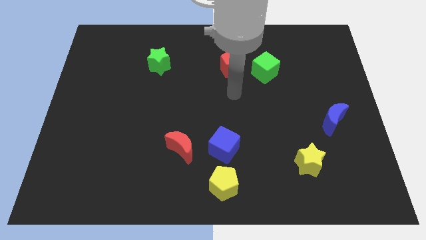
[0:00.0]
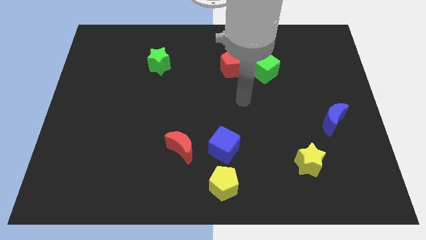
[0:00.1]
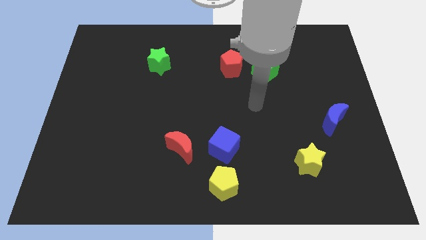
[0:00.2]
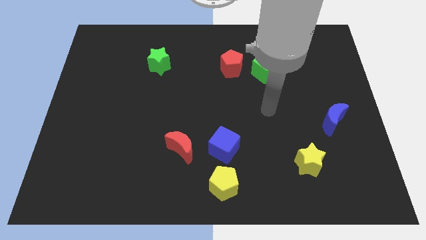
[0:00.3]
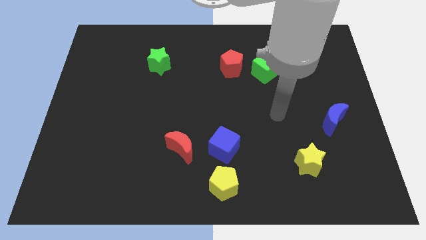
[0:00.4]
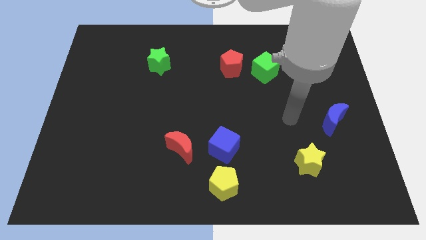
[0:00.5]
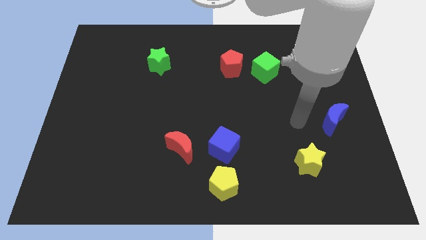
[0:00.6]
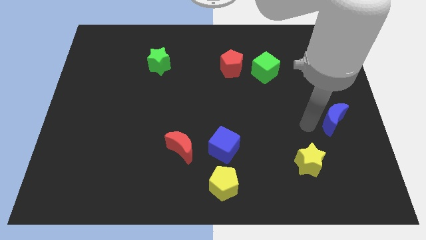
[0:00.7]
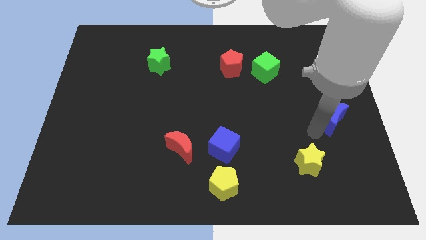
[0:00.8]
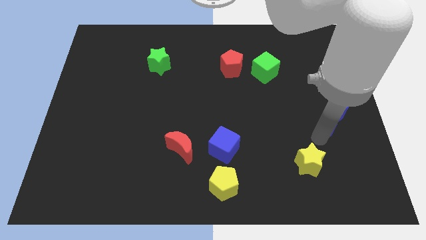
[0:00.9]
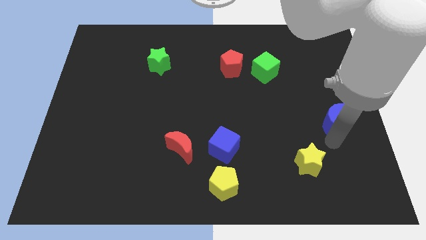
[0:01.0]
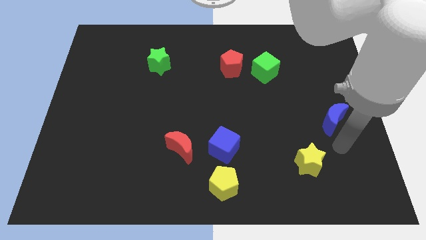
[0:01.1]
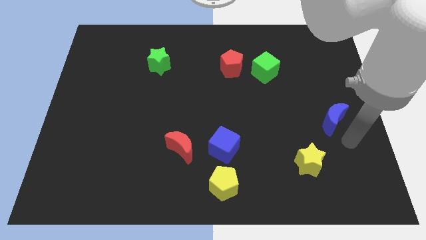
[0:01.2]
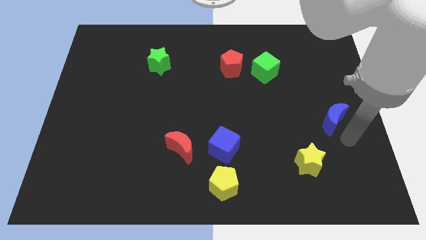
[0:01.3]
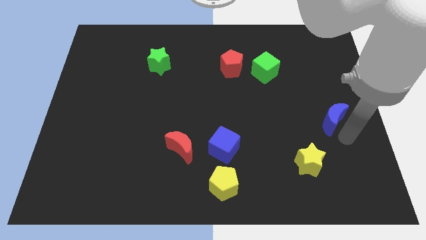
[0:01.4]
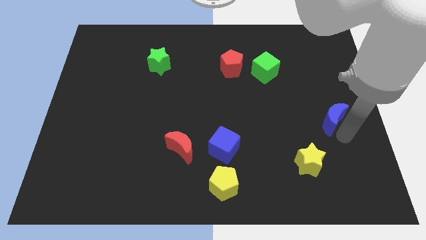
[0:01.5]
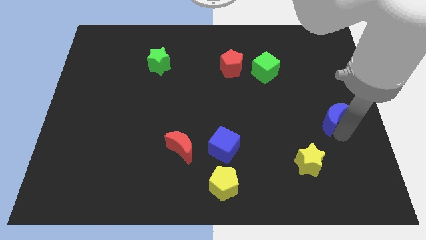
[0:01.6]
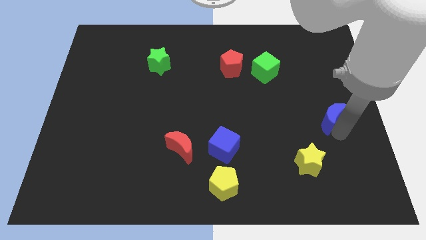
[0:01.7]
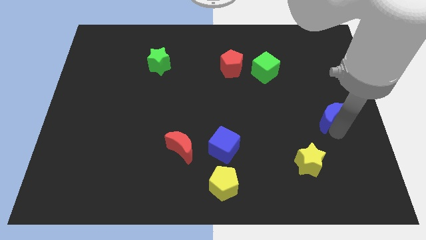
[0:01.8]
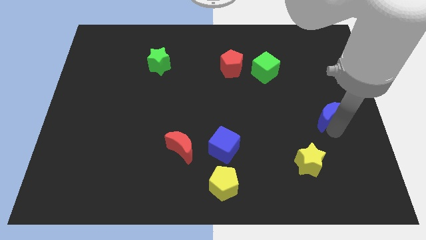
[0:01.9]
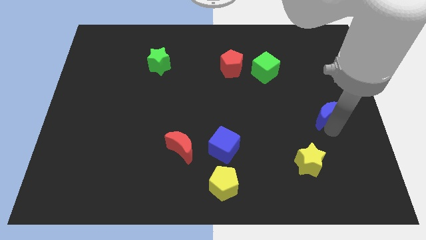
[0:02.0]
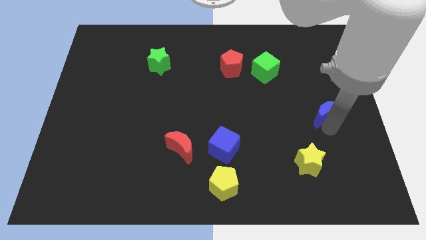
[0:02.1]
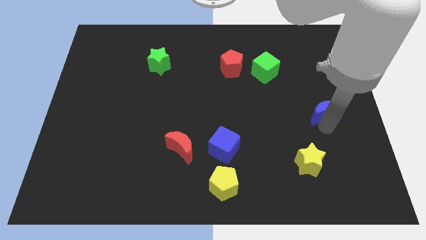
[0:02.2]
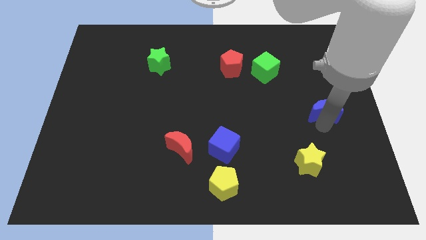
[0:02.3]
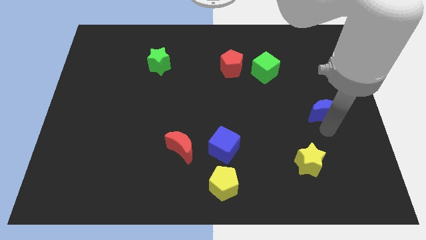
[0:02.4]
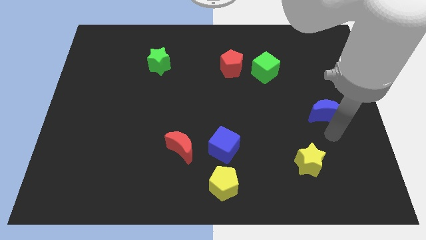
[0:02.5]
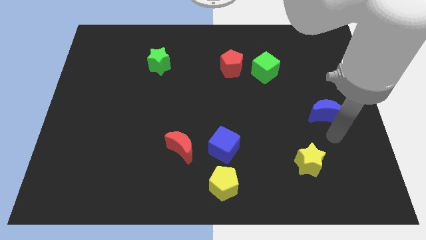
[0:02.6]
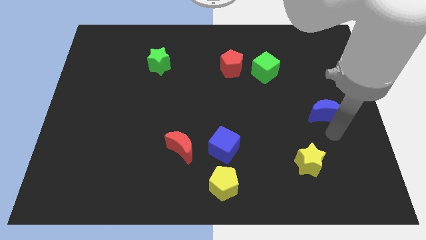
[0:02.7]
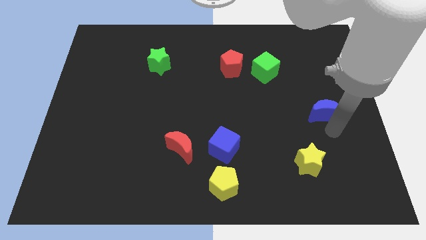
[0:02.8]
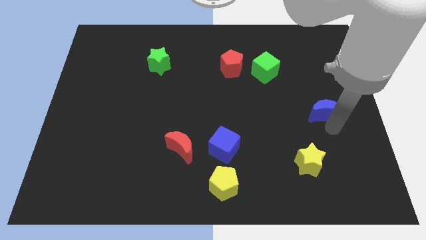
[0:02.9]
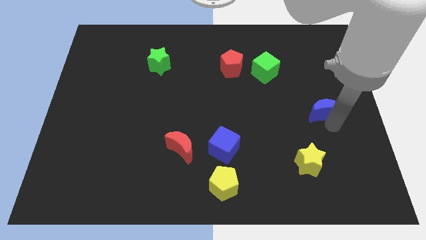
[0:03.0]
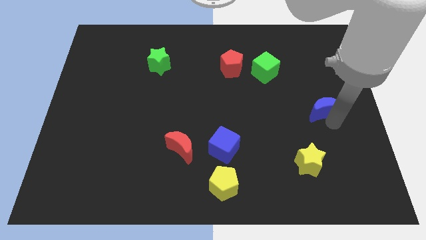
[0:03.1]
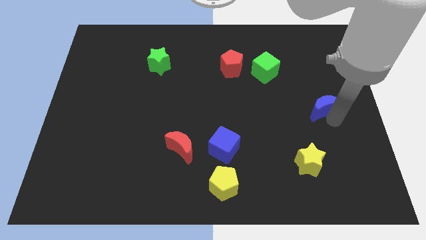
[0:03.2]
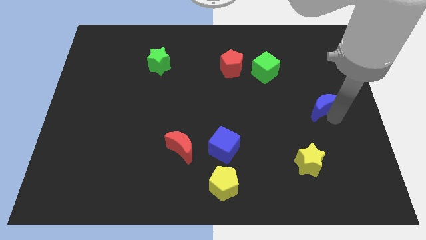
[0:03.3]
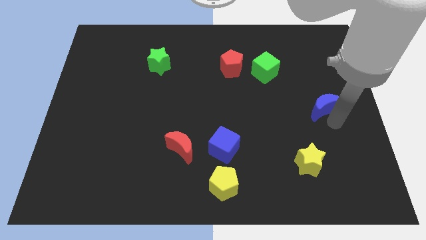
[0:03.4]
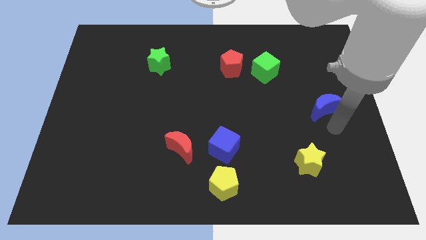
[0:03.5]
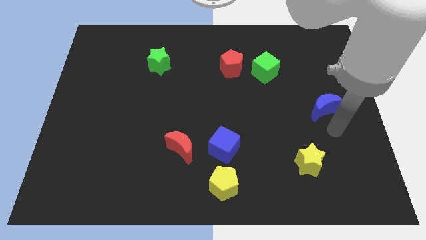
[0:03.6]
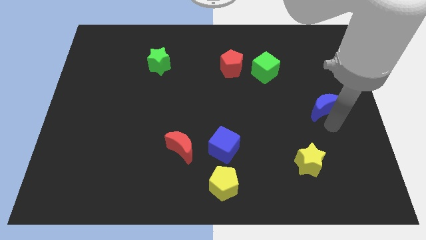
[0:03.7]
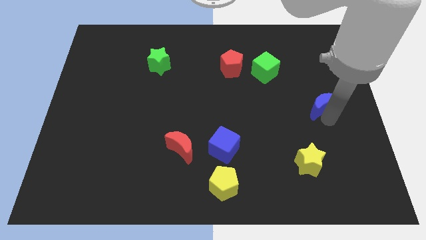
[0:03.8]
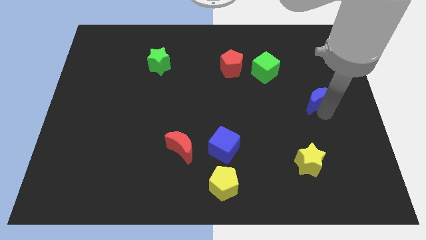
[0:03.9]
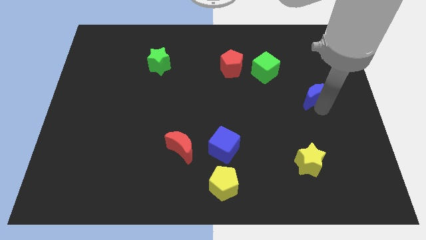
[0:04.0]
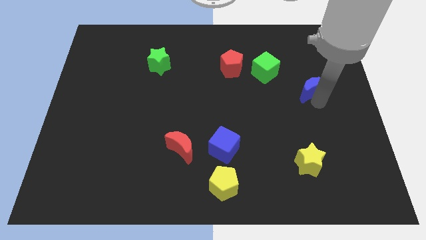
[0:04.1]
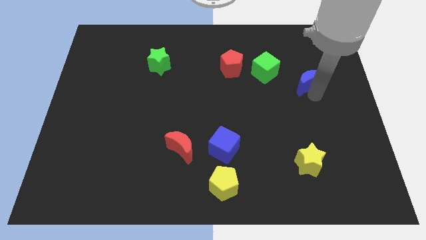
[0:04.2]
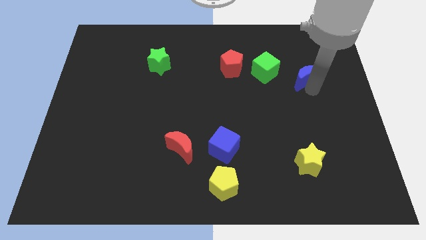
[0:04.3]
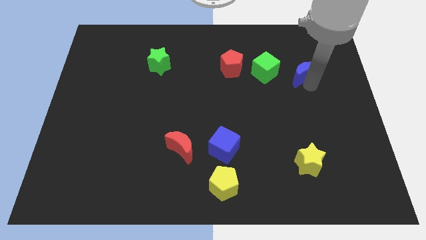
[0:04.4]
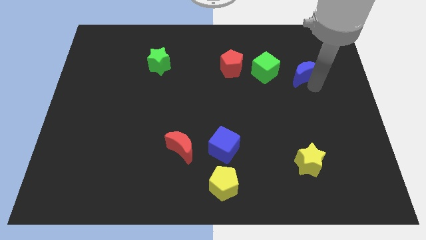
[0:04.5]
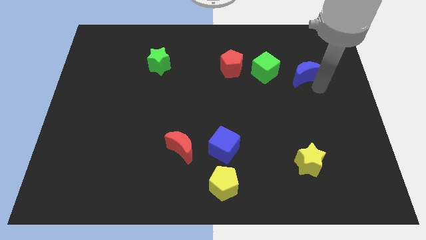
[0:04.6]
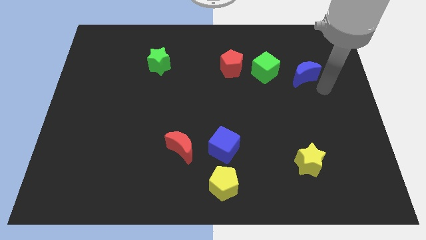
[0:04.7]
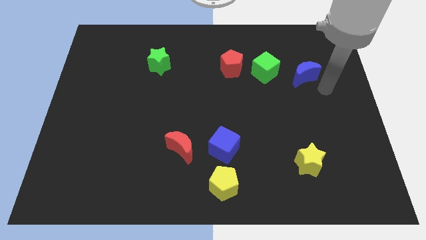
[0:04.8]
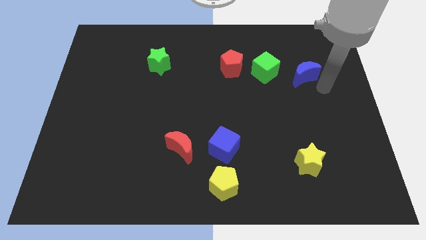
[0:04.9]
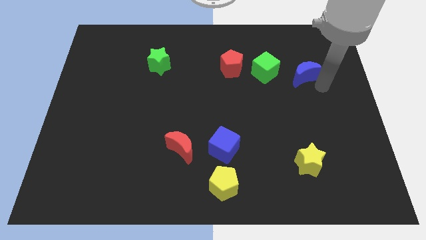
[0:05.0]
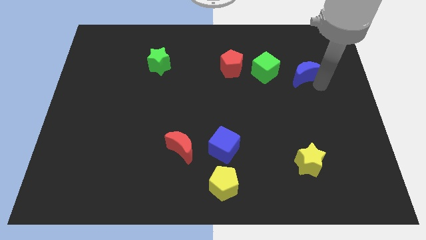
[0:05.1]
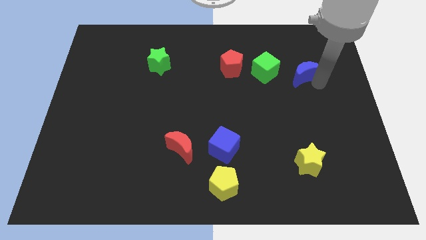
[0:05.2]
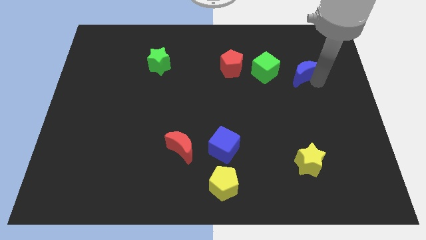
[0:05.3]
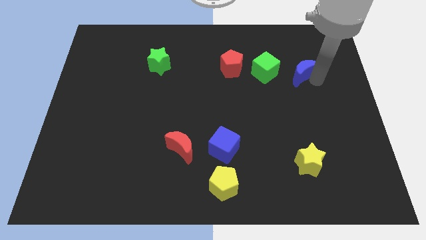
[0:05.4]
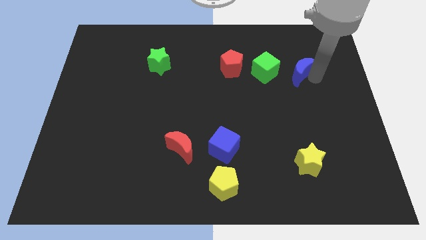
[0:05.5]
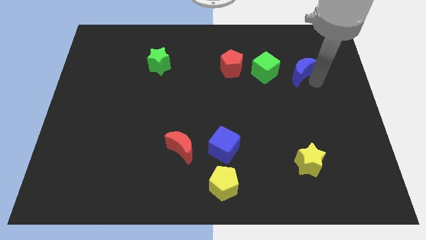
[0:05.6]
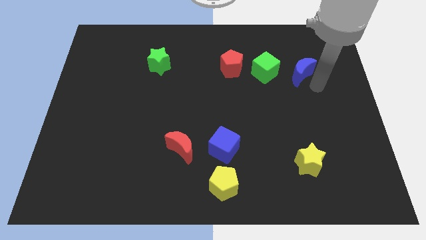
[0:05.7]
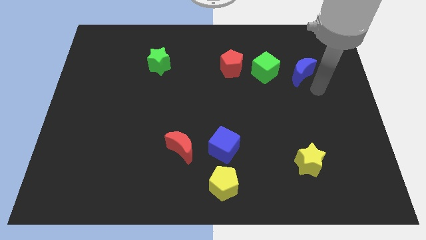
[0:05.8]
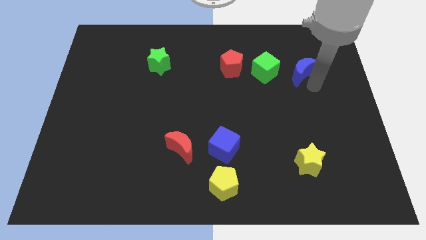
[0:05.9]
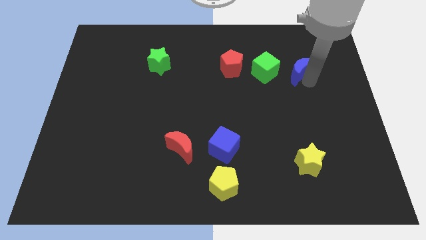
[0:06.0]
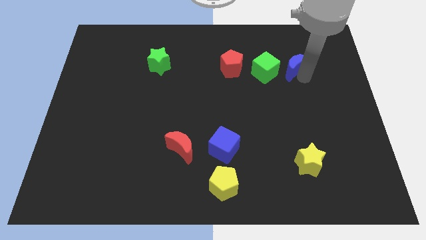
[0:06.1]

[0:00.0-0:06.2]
move the blue moon to the top right side of the green cube

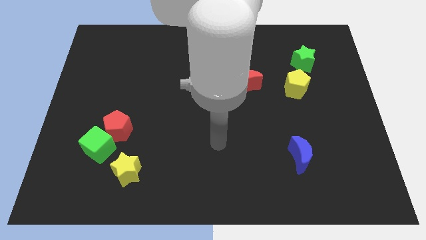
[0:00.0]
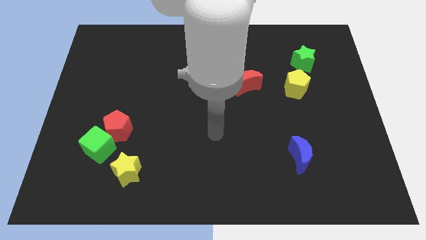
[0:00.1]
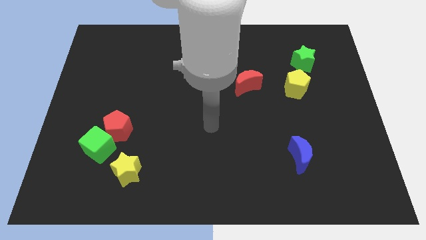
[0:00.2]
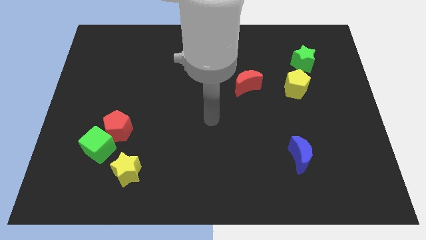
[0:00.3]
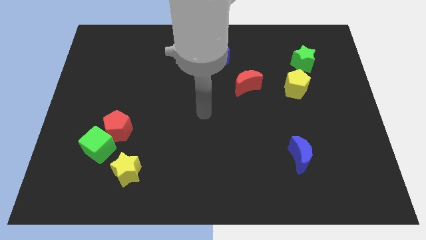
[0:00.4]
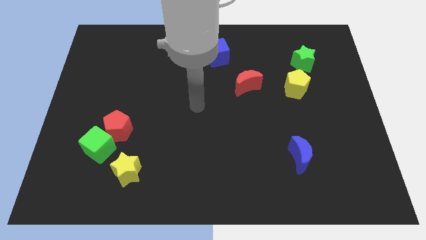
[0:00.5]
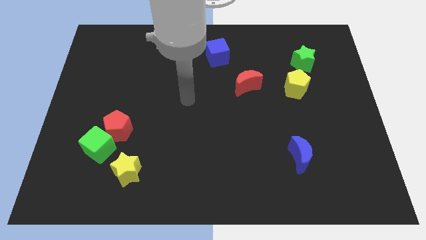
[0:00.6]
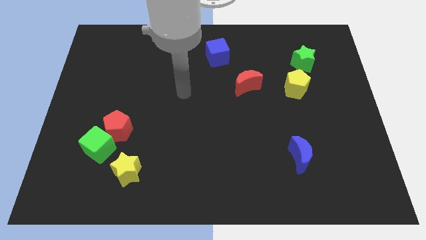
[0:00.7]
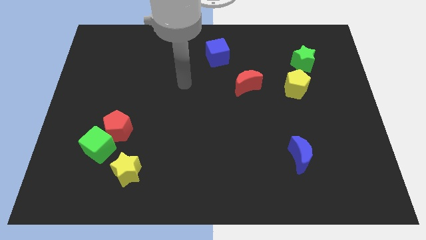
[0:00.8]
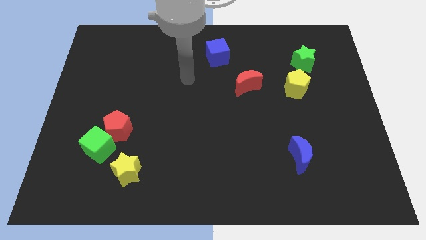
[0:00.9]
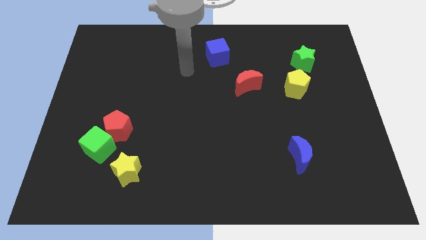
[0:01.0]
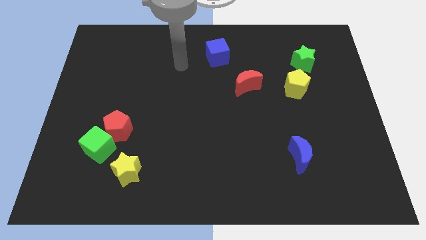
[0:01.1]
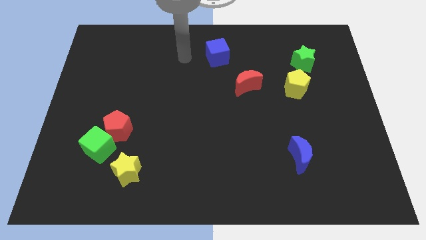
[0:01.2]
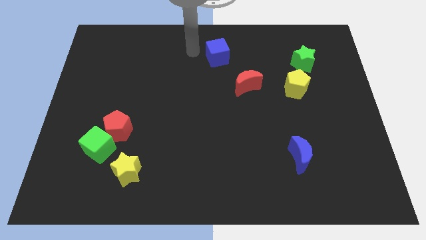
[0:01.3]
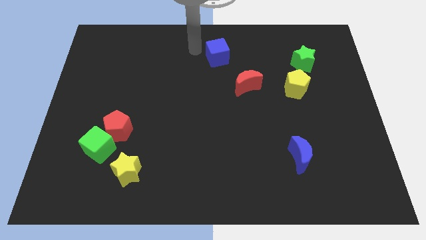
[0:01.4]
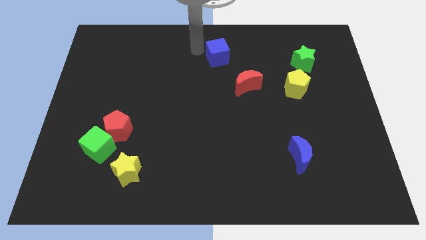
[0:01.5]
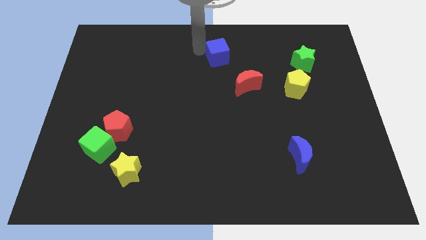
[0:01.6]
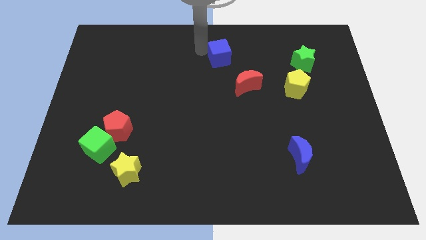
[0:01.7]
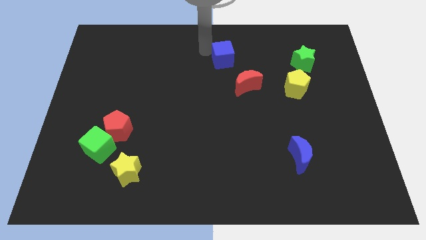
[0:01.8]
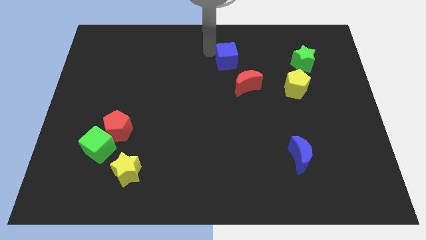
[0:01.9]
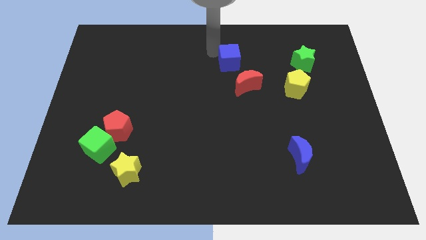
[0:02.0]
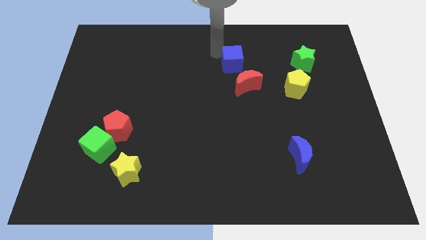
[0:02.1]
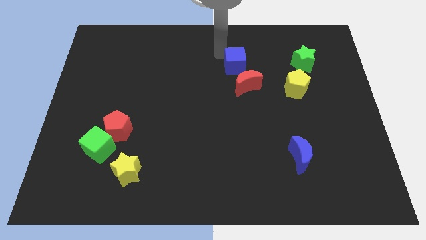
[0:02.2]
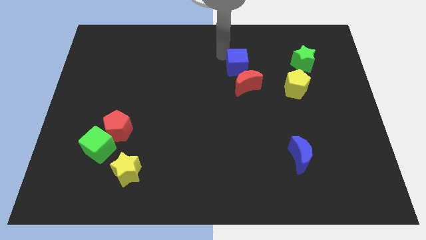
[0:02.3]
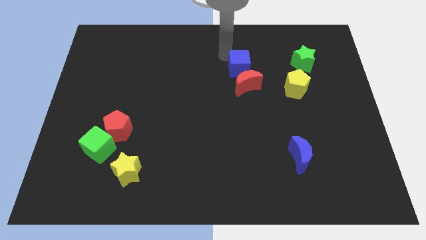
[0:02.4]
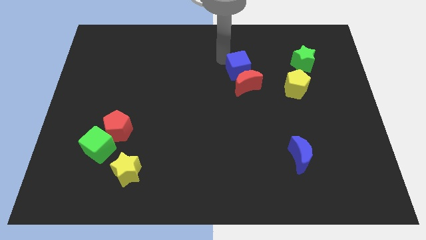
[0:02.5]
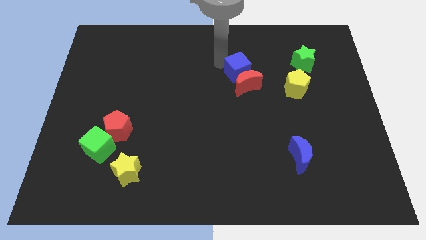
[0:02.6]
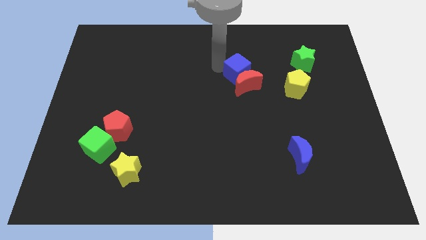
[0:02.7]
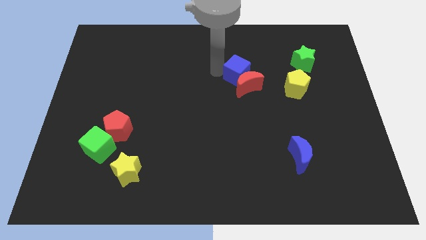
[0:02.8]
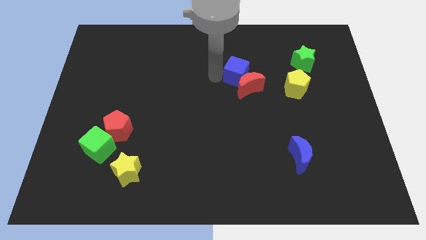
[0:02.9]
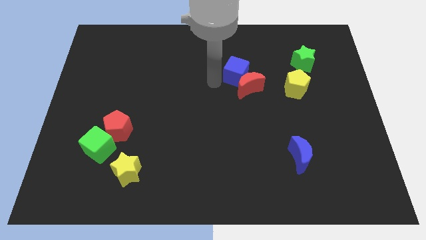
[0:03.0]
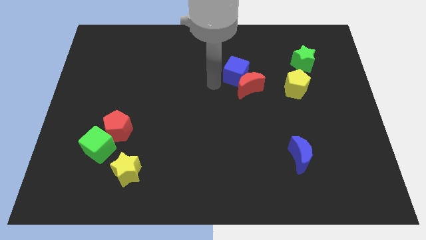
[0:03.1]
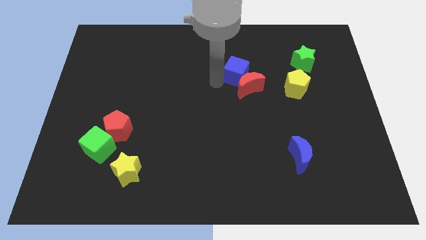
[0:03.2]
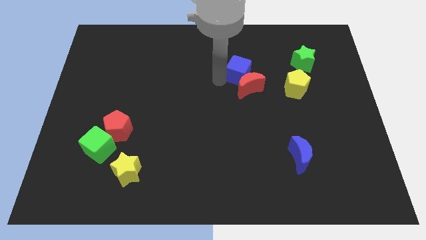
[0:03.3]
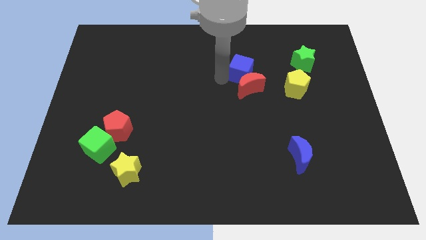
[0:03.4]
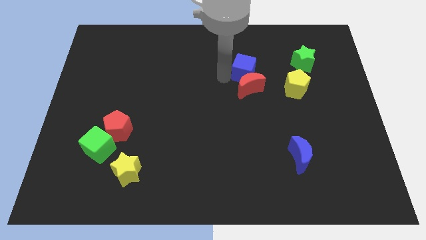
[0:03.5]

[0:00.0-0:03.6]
slide the blue cube to the left of the green star
